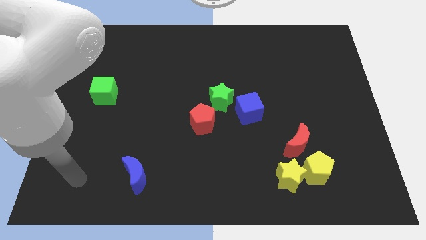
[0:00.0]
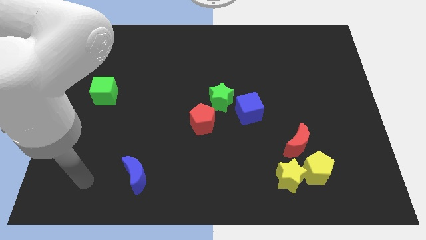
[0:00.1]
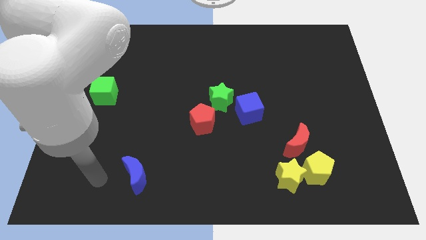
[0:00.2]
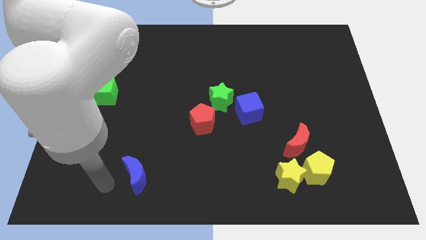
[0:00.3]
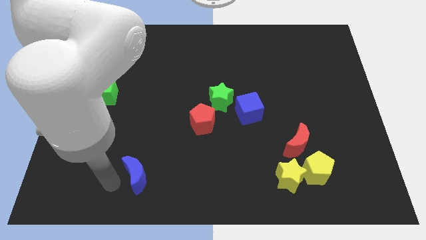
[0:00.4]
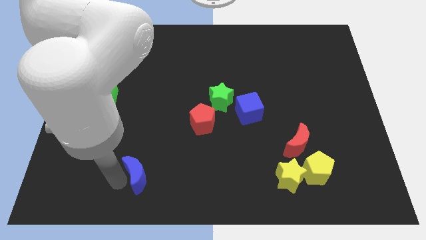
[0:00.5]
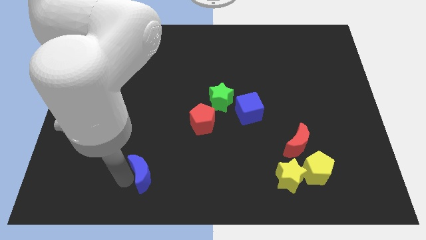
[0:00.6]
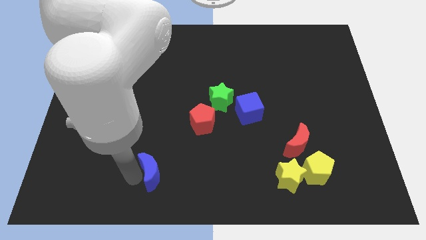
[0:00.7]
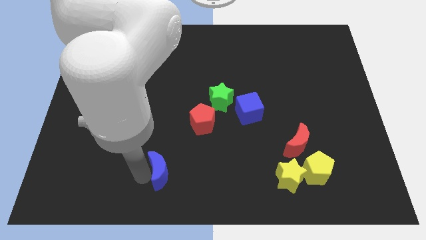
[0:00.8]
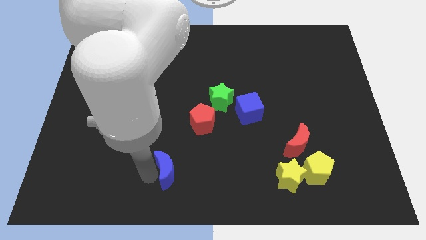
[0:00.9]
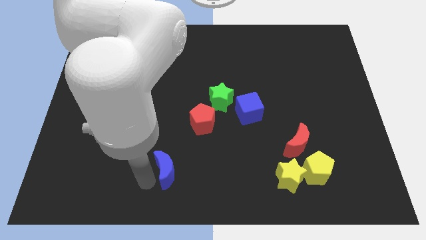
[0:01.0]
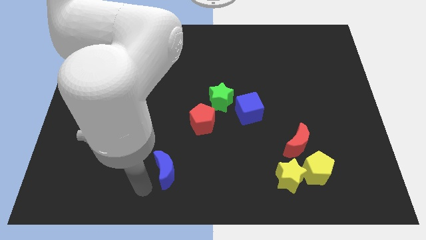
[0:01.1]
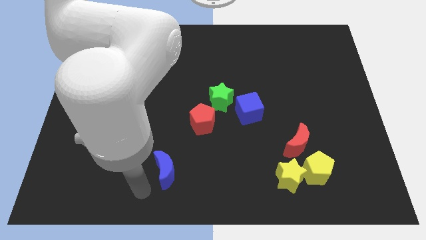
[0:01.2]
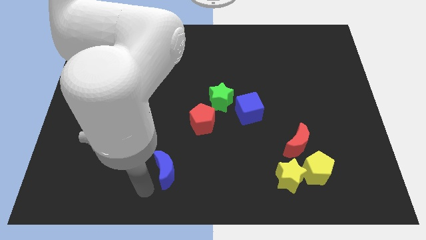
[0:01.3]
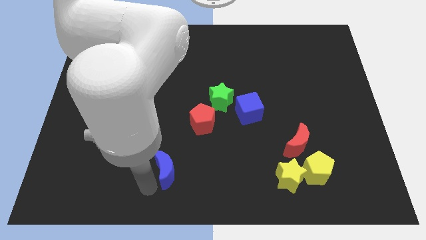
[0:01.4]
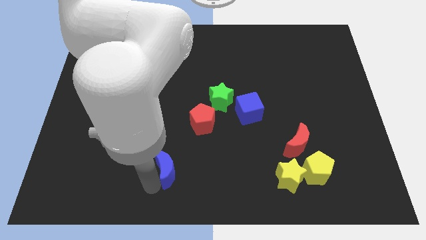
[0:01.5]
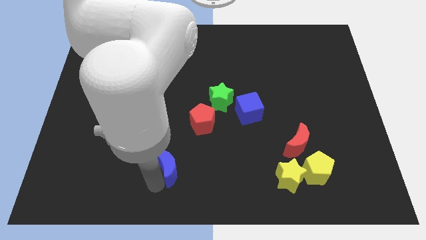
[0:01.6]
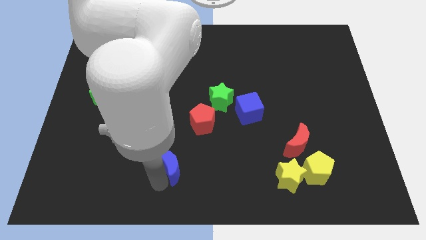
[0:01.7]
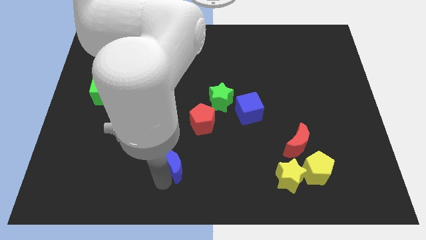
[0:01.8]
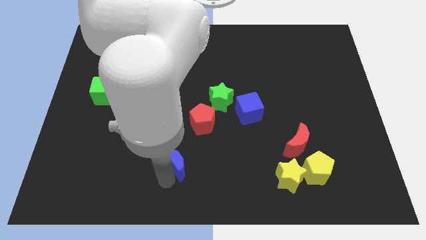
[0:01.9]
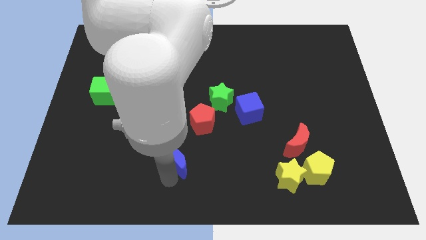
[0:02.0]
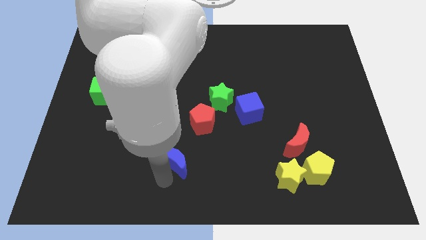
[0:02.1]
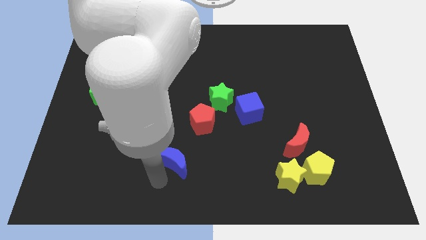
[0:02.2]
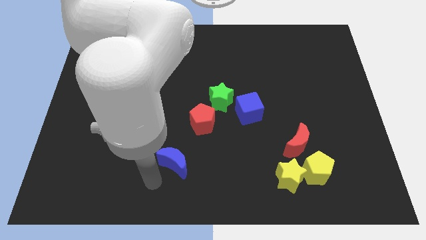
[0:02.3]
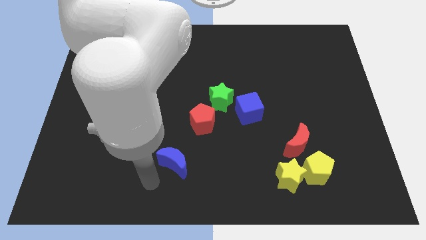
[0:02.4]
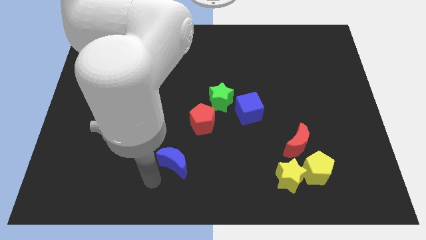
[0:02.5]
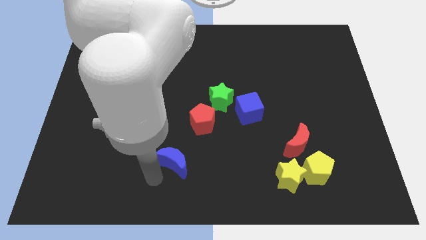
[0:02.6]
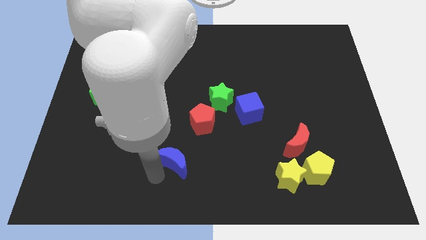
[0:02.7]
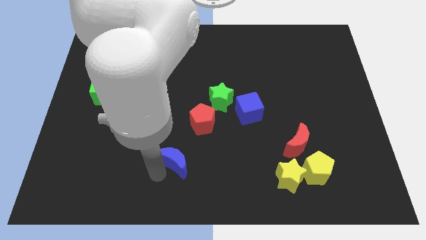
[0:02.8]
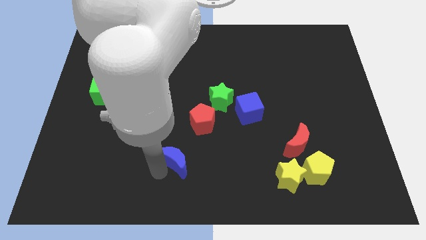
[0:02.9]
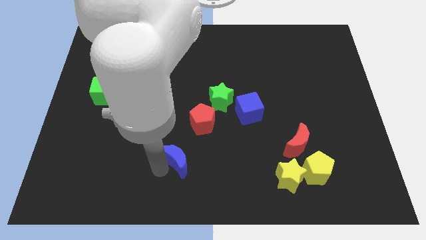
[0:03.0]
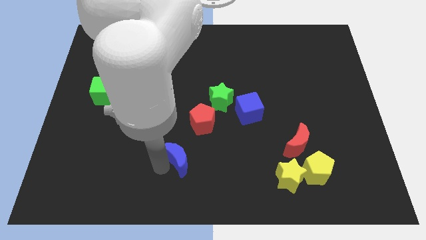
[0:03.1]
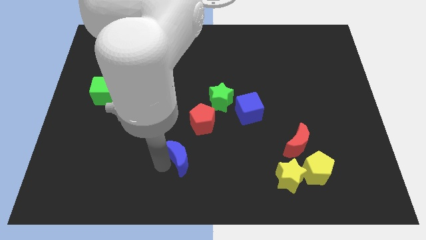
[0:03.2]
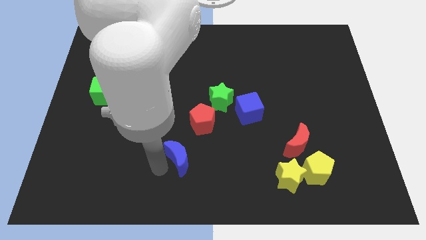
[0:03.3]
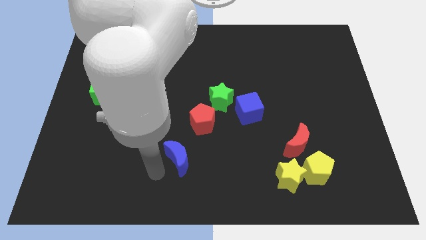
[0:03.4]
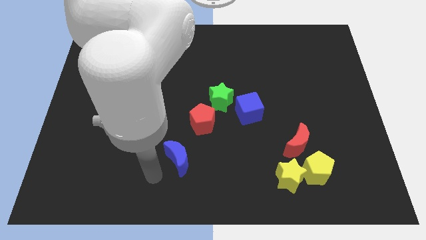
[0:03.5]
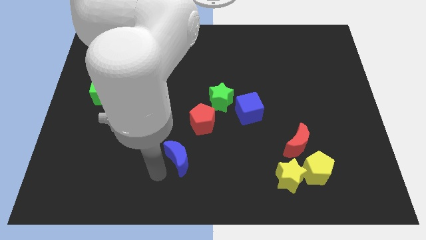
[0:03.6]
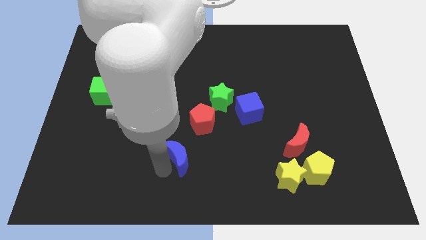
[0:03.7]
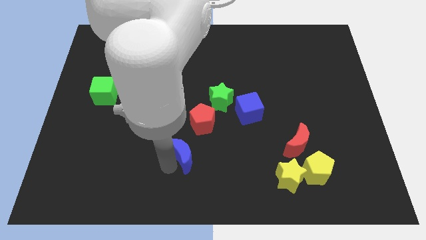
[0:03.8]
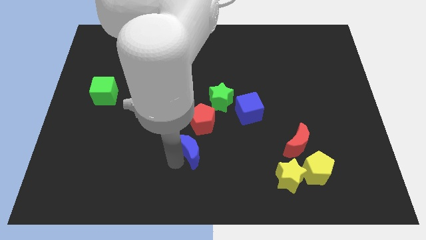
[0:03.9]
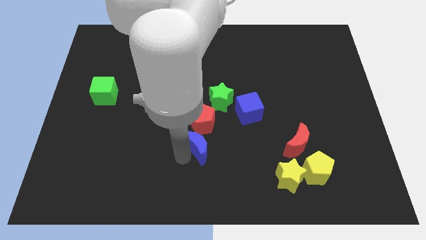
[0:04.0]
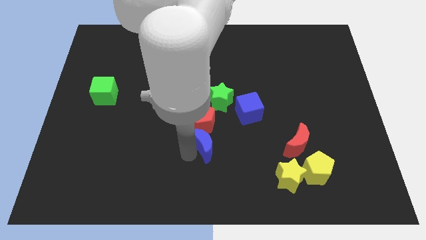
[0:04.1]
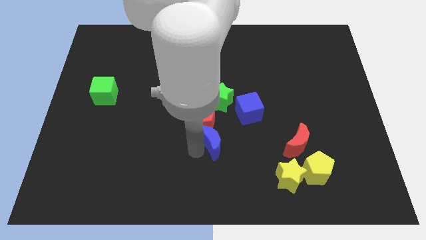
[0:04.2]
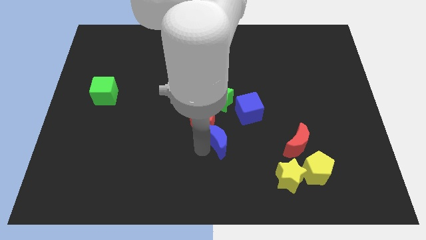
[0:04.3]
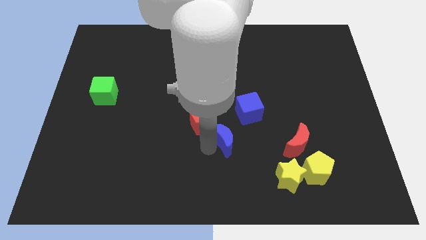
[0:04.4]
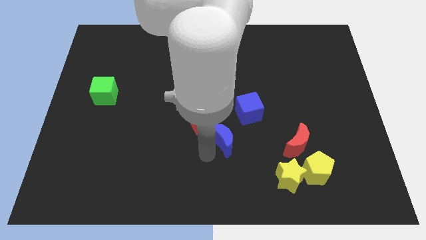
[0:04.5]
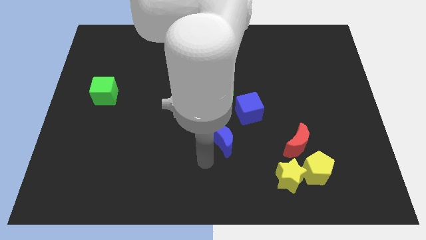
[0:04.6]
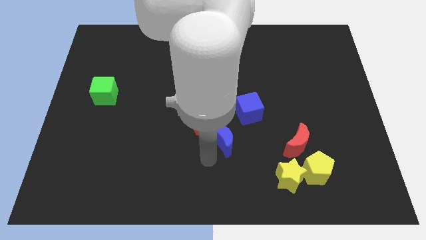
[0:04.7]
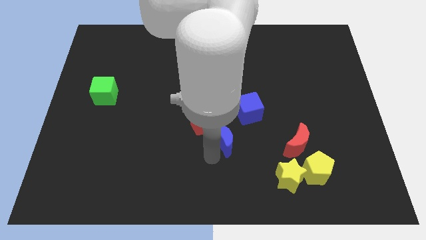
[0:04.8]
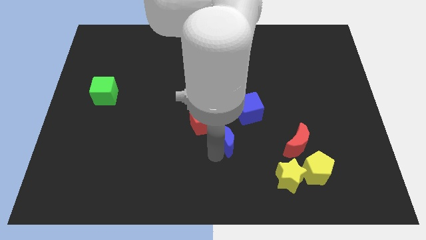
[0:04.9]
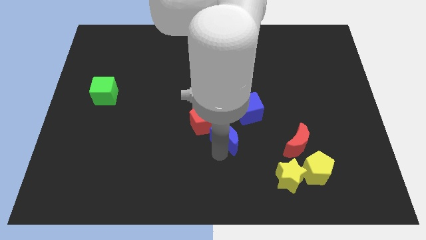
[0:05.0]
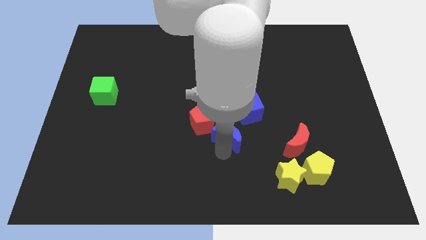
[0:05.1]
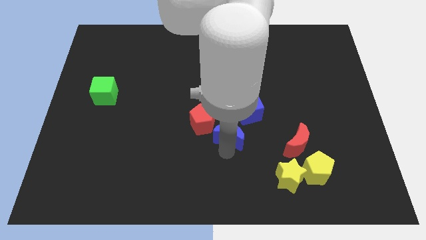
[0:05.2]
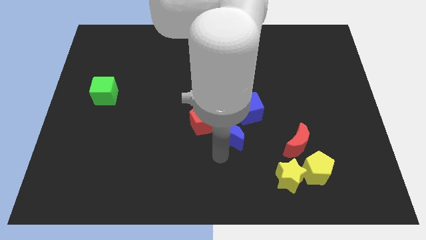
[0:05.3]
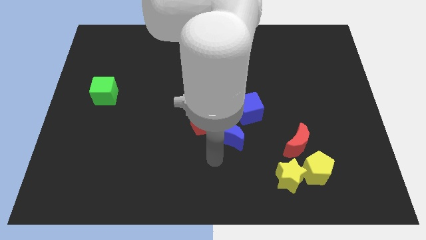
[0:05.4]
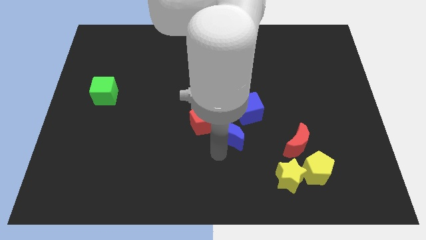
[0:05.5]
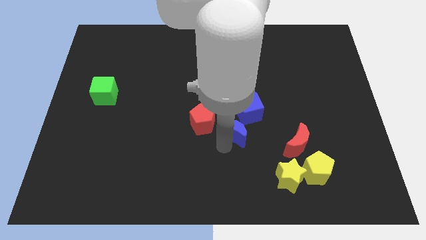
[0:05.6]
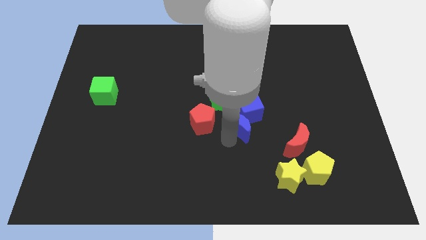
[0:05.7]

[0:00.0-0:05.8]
move the blue moon next to the blue cube

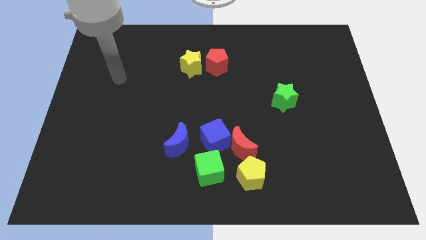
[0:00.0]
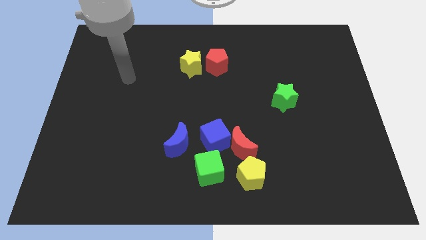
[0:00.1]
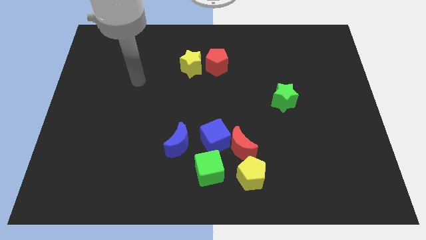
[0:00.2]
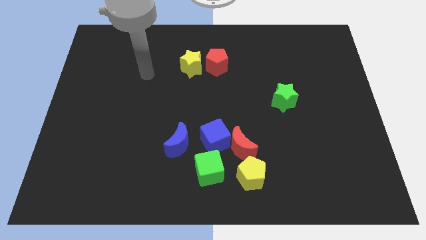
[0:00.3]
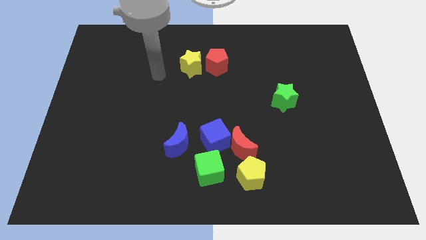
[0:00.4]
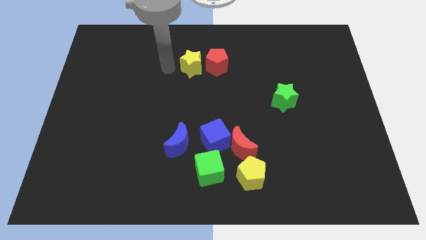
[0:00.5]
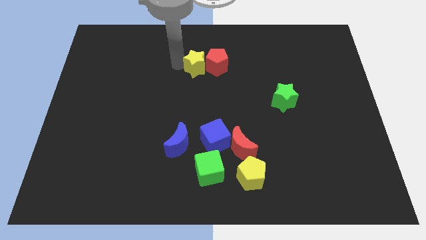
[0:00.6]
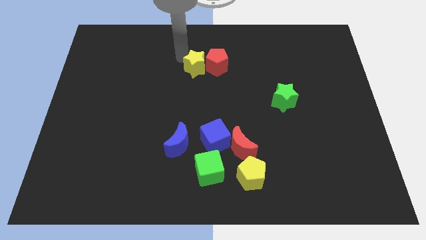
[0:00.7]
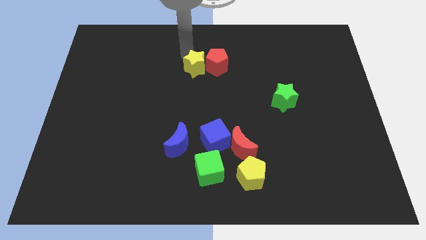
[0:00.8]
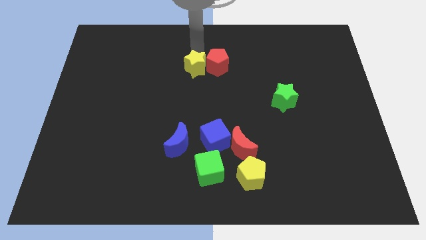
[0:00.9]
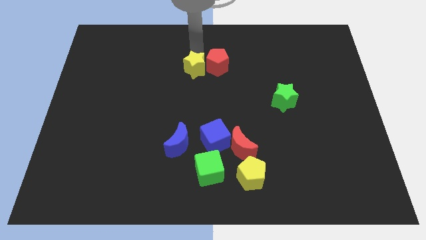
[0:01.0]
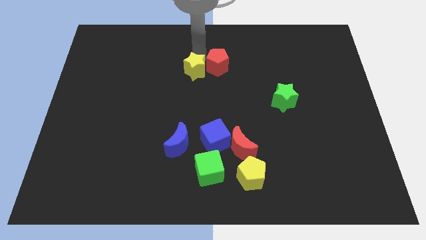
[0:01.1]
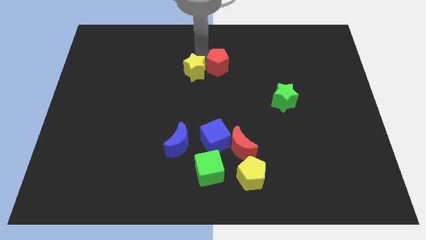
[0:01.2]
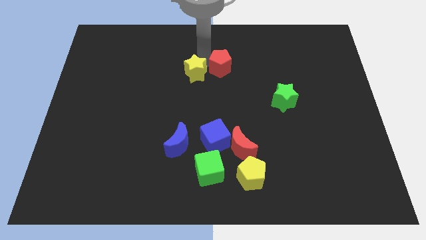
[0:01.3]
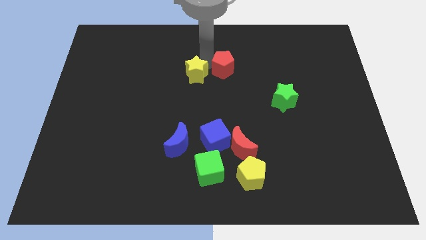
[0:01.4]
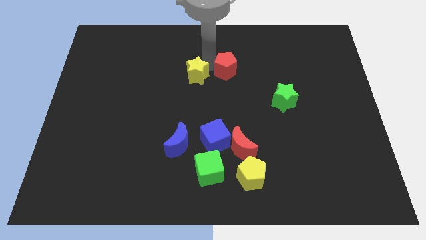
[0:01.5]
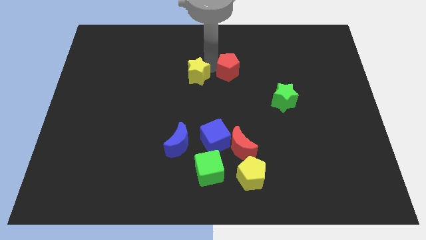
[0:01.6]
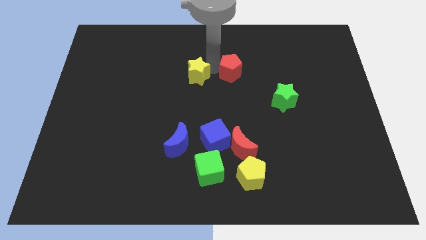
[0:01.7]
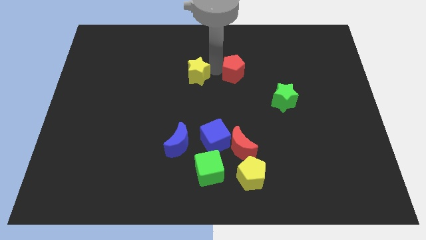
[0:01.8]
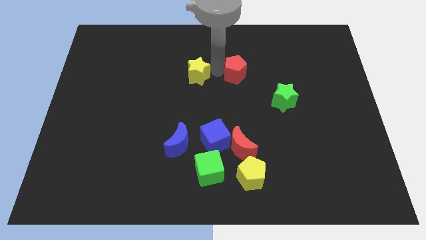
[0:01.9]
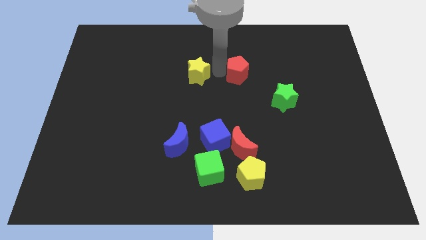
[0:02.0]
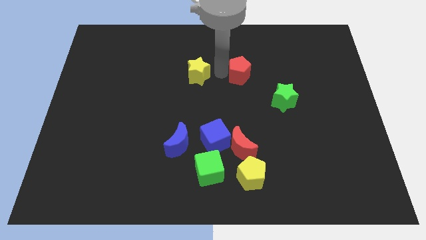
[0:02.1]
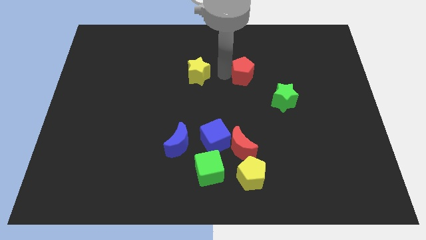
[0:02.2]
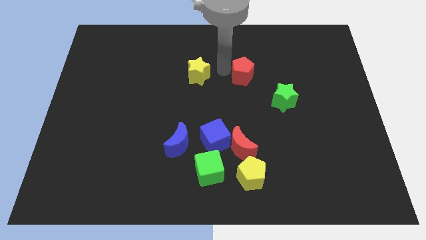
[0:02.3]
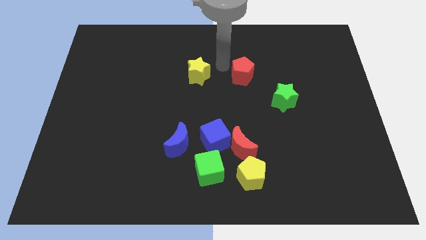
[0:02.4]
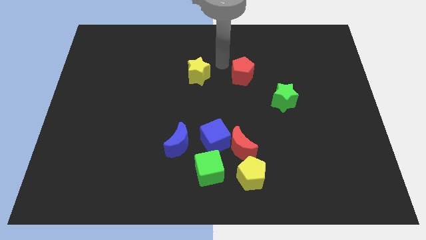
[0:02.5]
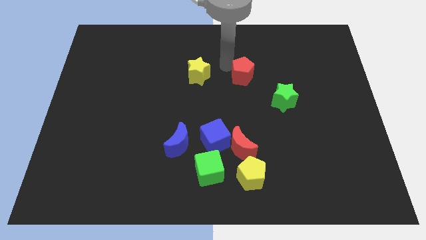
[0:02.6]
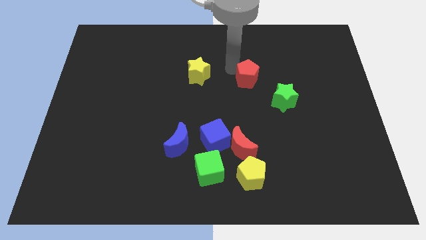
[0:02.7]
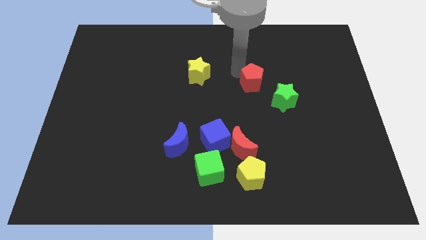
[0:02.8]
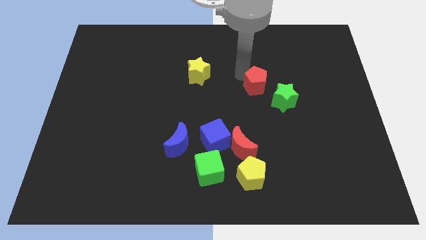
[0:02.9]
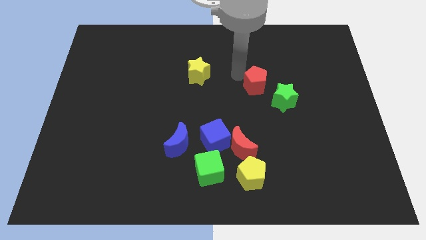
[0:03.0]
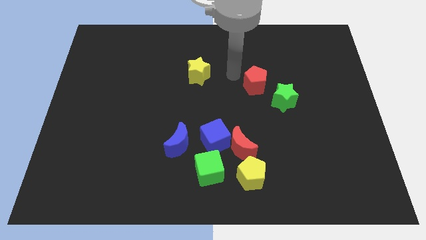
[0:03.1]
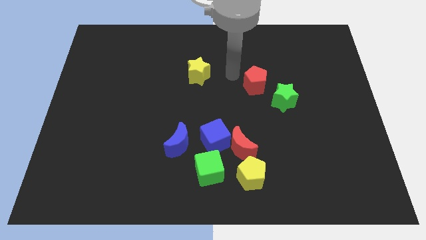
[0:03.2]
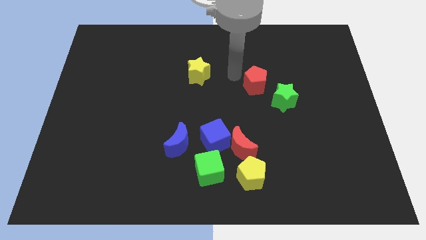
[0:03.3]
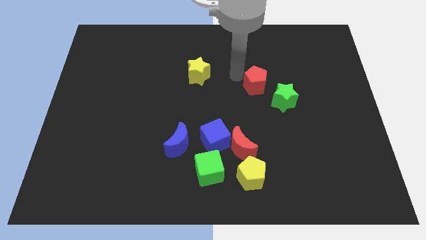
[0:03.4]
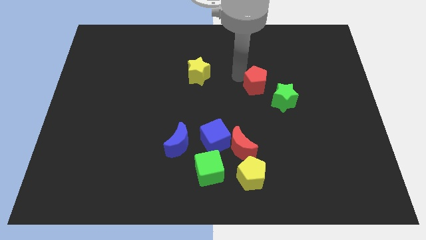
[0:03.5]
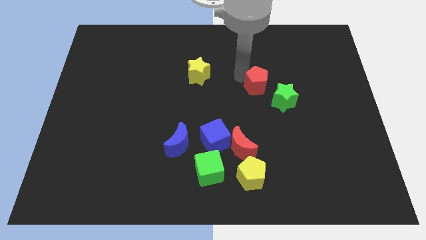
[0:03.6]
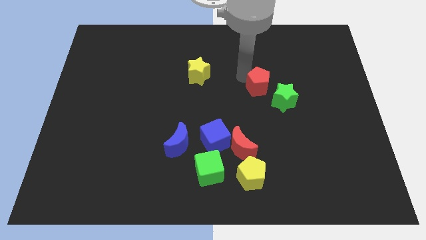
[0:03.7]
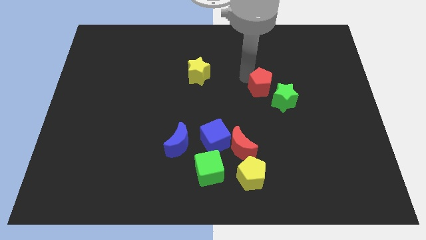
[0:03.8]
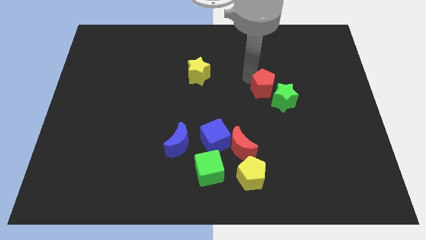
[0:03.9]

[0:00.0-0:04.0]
push the red pentagon towards the green star
